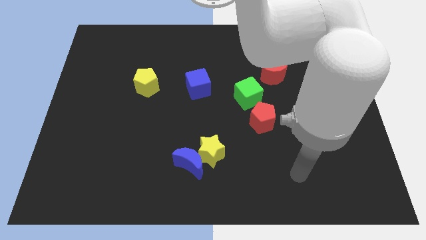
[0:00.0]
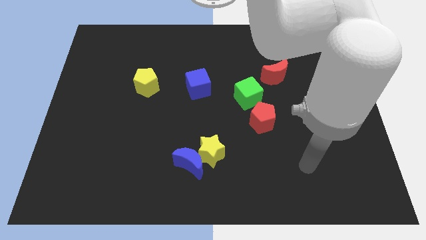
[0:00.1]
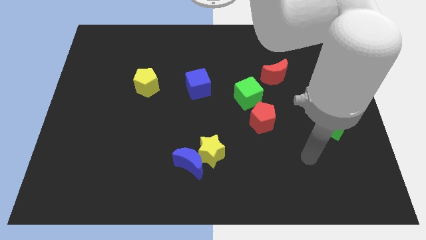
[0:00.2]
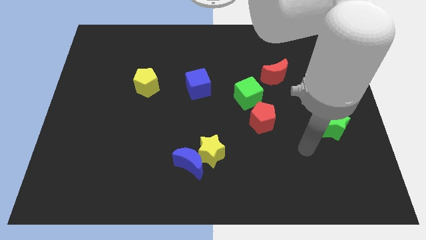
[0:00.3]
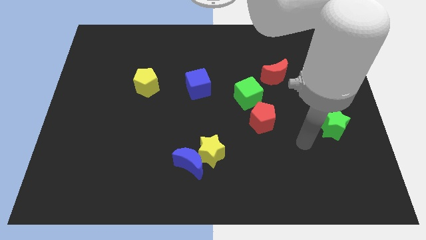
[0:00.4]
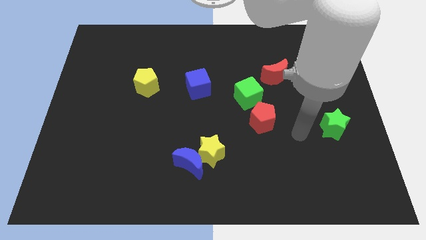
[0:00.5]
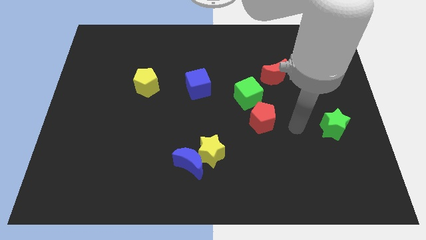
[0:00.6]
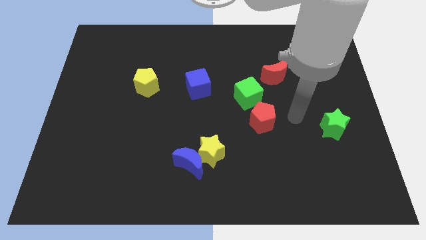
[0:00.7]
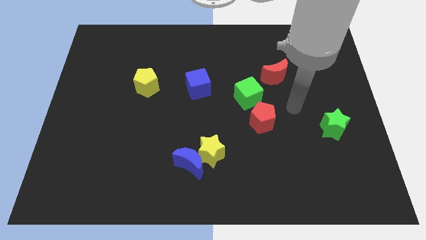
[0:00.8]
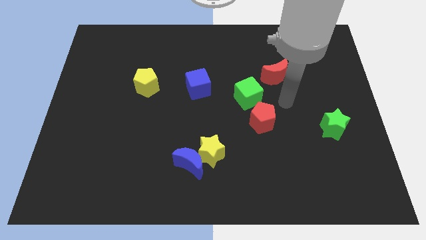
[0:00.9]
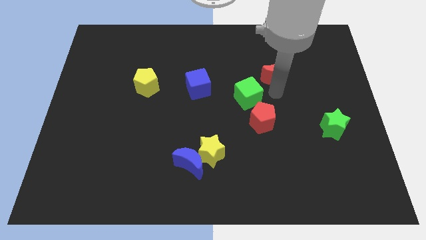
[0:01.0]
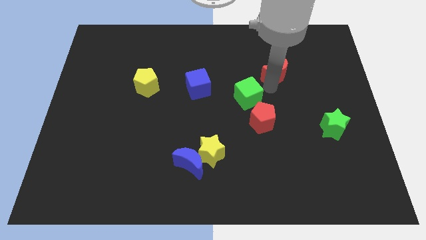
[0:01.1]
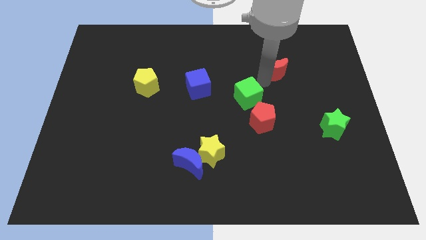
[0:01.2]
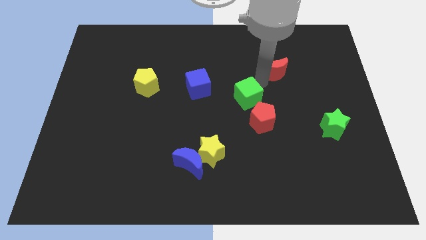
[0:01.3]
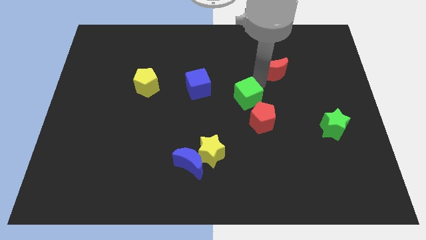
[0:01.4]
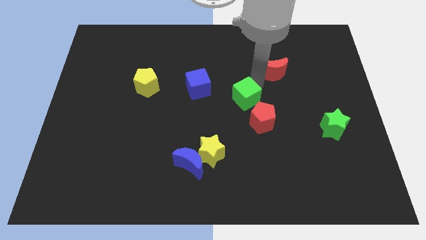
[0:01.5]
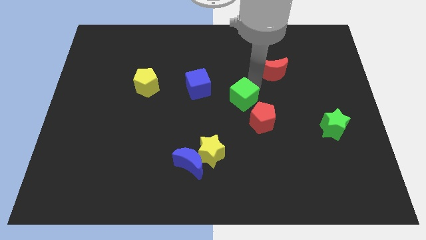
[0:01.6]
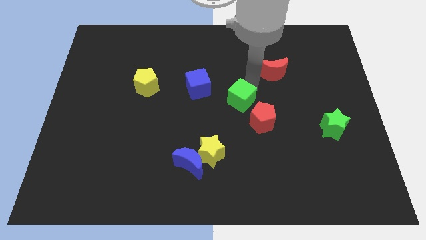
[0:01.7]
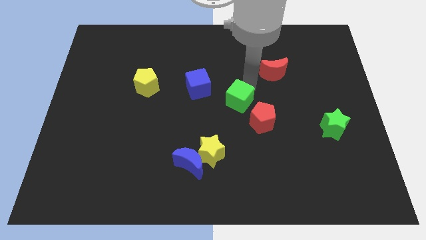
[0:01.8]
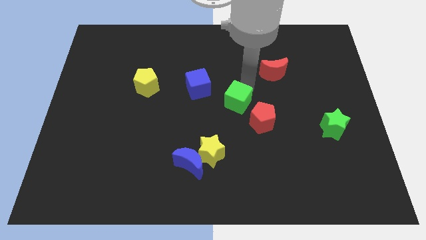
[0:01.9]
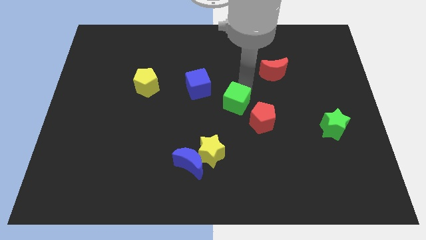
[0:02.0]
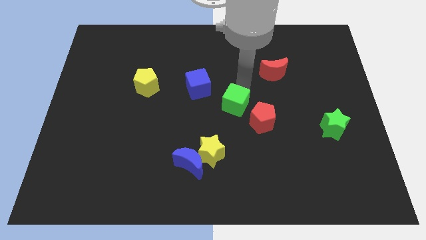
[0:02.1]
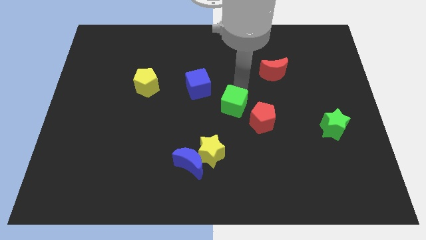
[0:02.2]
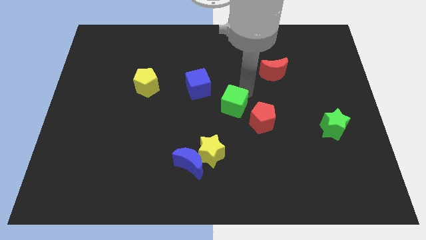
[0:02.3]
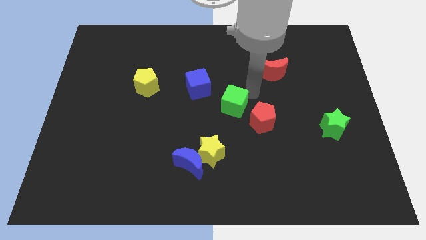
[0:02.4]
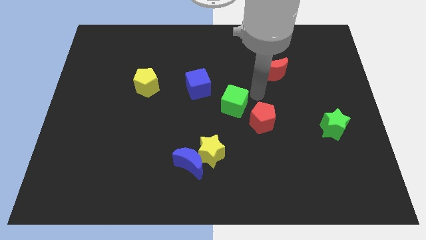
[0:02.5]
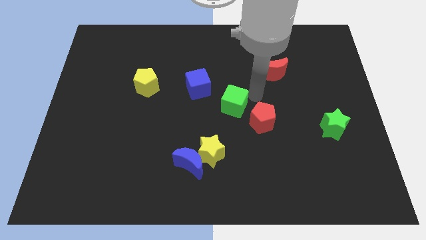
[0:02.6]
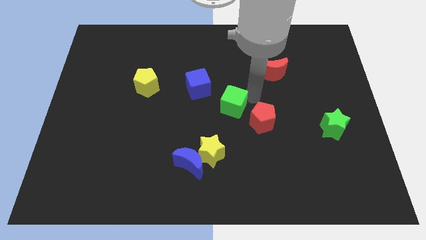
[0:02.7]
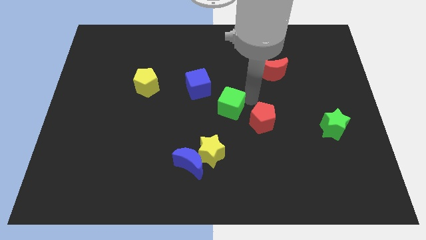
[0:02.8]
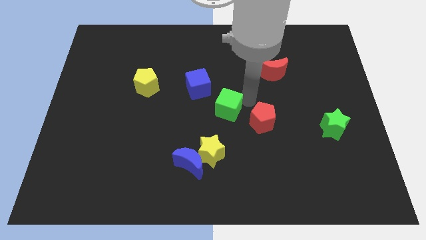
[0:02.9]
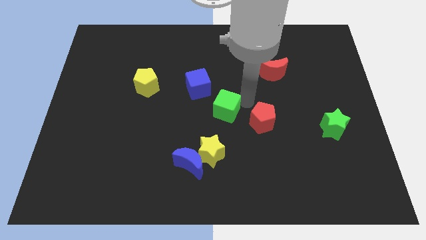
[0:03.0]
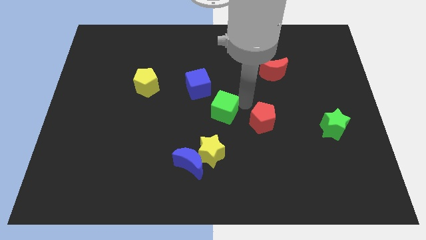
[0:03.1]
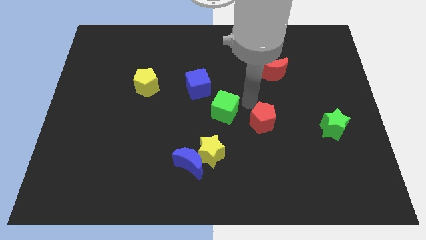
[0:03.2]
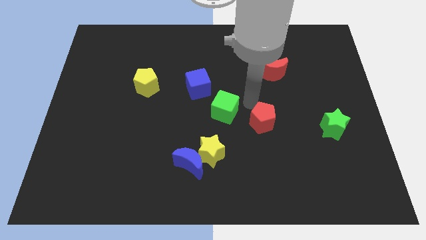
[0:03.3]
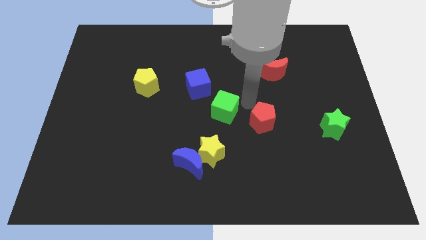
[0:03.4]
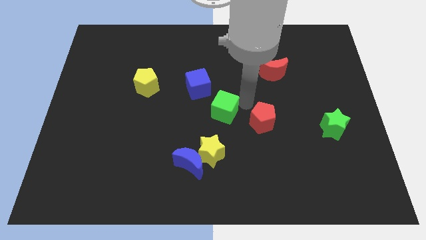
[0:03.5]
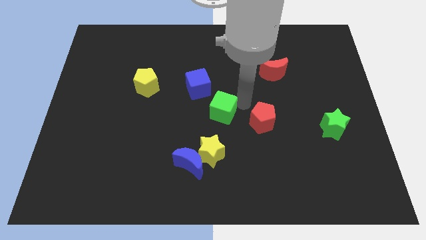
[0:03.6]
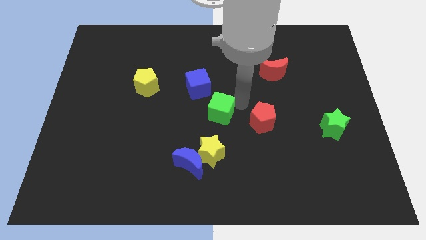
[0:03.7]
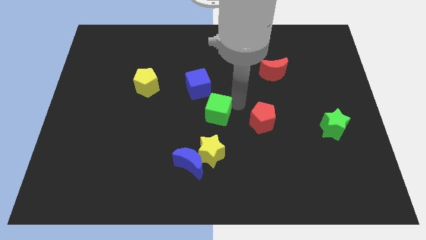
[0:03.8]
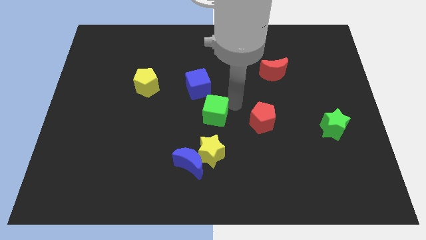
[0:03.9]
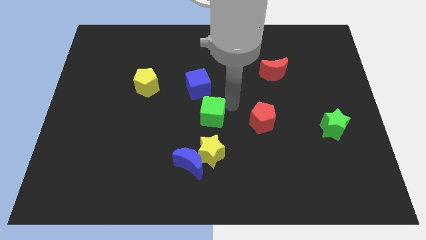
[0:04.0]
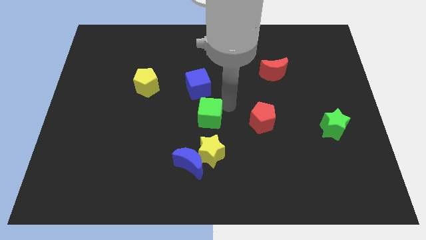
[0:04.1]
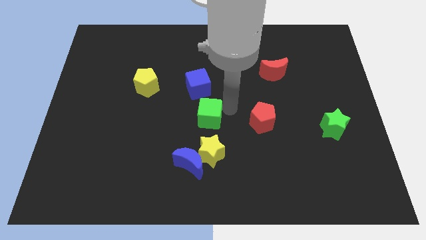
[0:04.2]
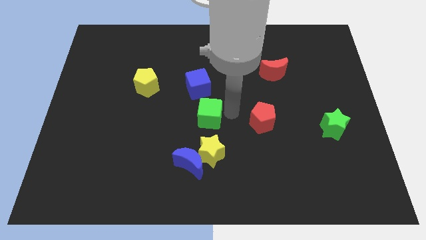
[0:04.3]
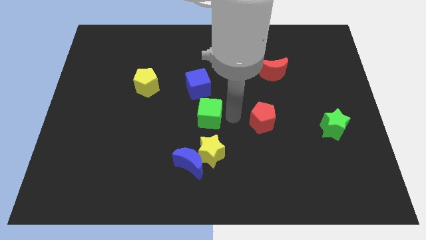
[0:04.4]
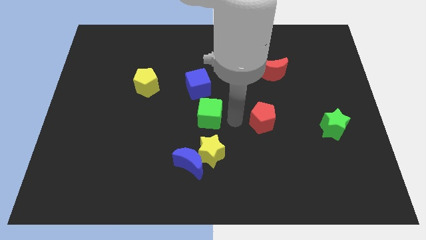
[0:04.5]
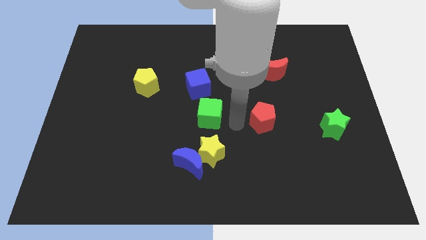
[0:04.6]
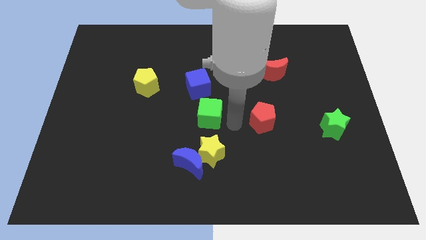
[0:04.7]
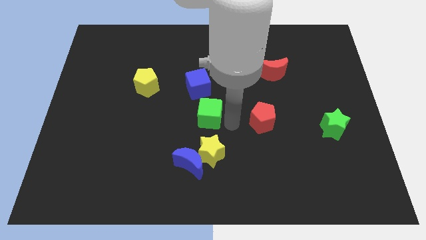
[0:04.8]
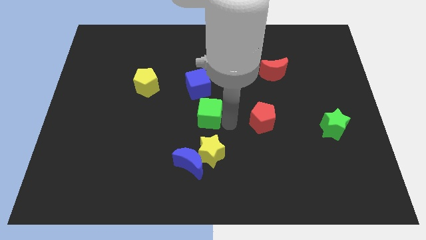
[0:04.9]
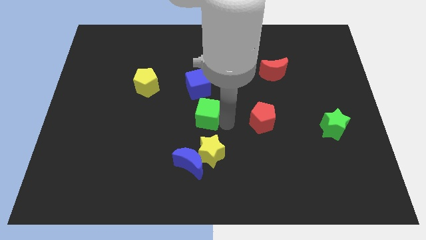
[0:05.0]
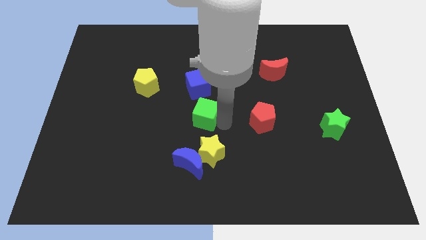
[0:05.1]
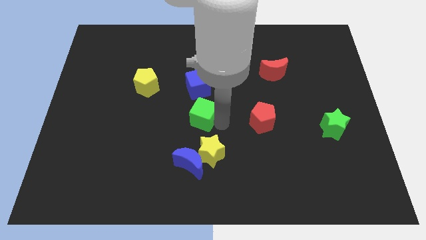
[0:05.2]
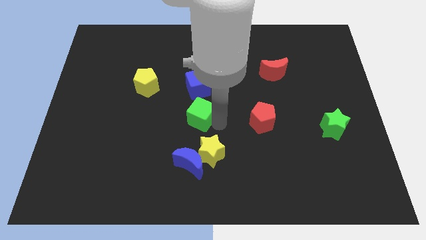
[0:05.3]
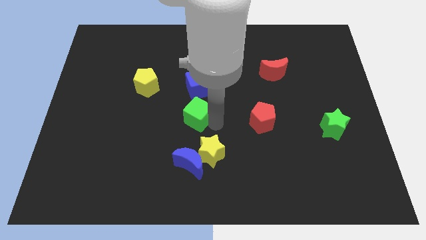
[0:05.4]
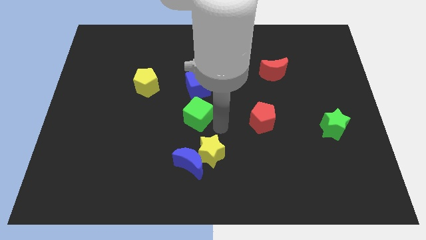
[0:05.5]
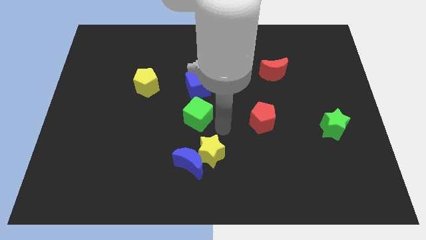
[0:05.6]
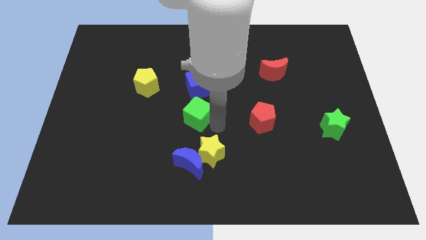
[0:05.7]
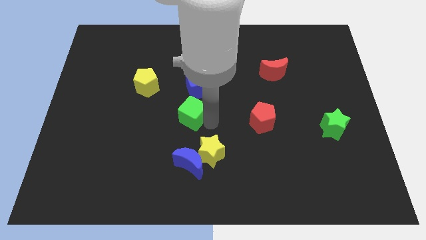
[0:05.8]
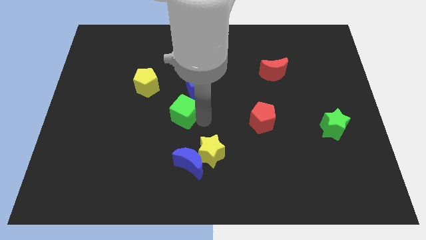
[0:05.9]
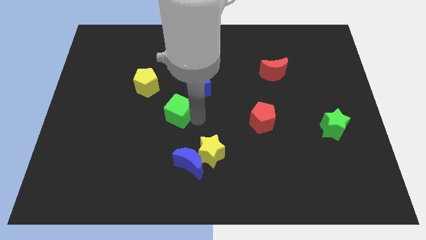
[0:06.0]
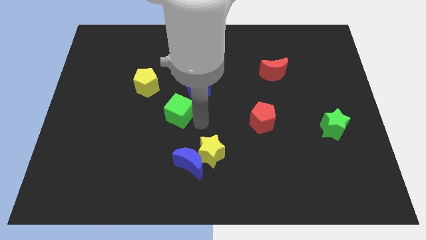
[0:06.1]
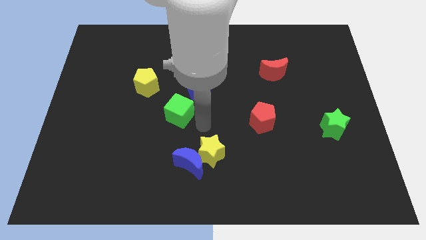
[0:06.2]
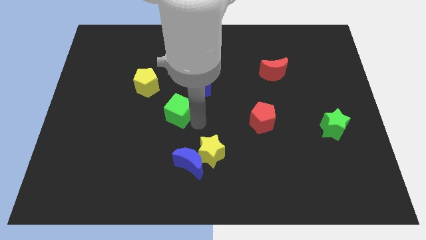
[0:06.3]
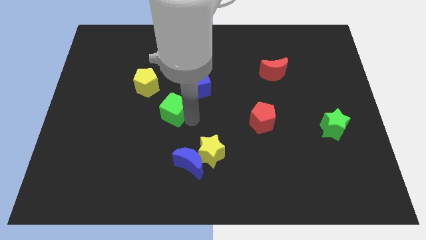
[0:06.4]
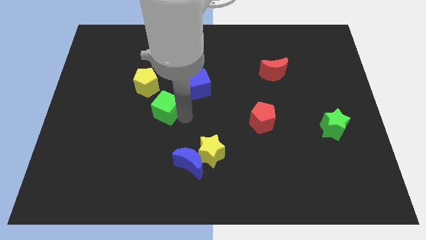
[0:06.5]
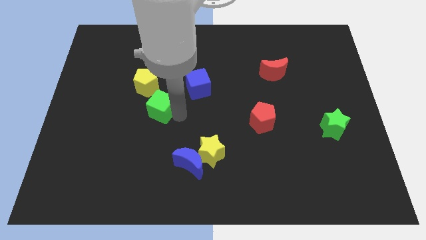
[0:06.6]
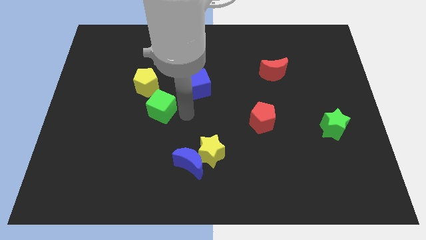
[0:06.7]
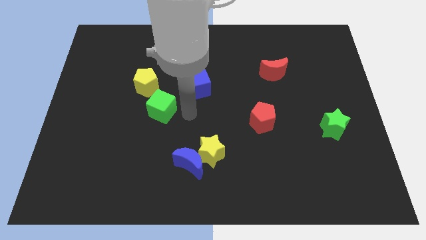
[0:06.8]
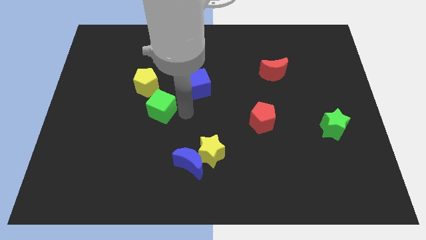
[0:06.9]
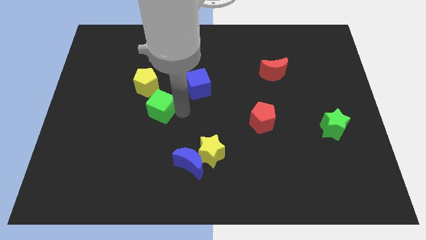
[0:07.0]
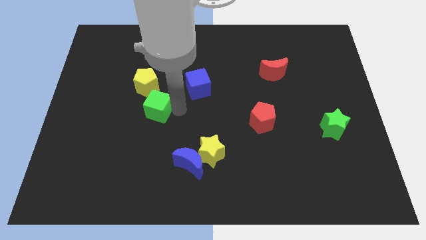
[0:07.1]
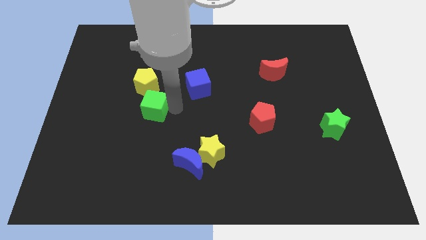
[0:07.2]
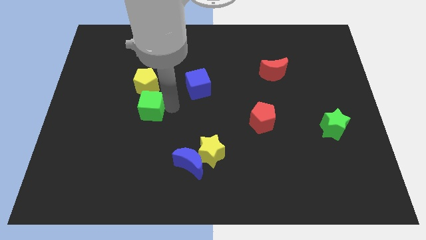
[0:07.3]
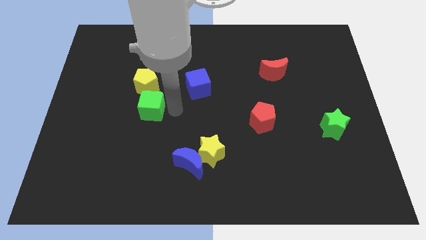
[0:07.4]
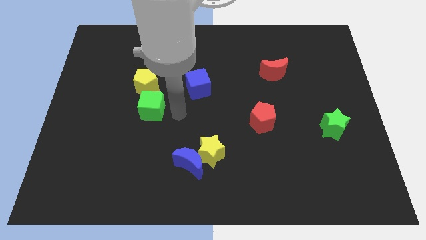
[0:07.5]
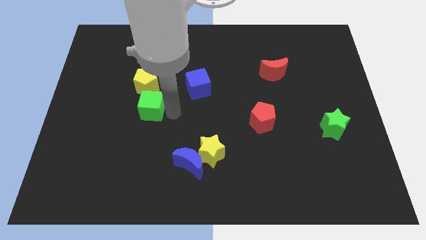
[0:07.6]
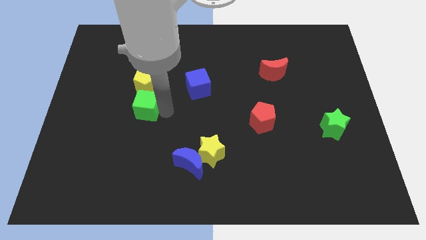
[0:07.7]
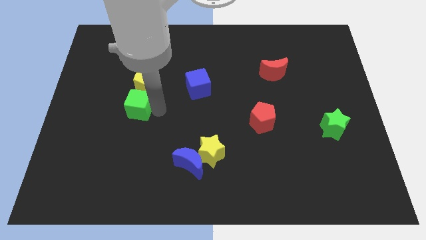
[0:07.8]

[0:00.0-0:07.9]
move the green cube to the bottom left of the yellow pentagon
